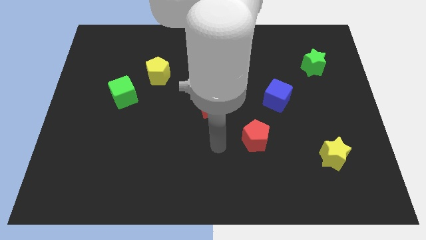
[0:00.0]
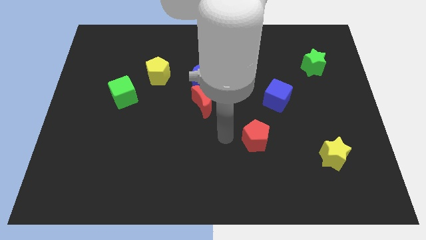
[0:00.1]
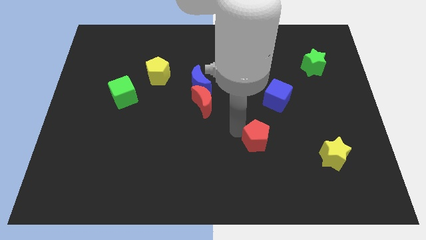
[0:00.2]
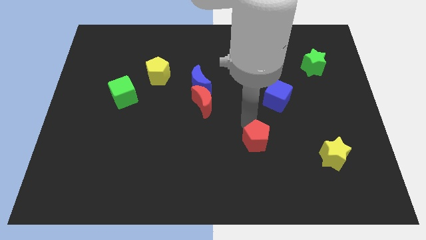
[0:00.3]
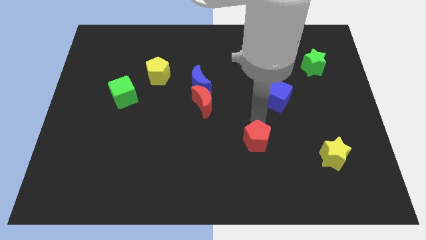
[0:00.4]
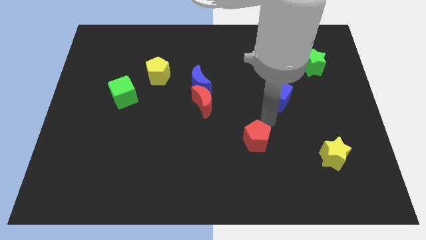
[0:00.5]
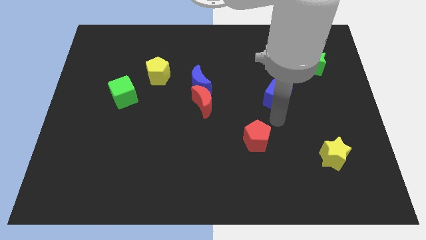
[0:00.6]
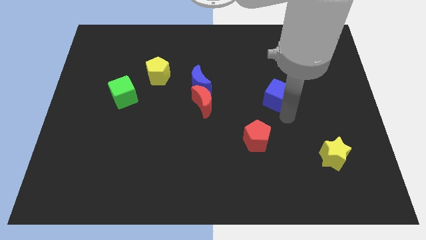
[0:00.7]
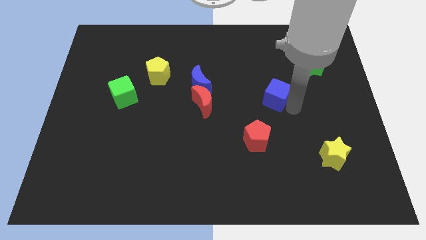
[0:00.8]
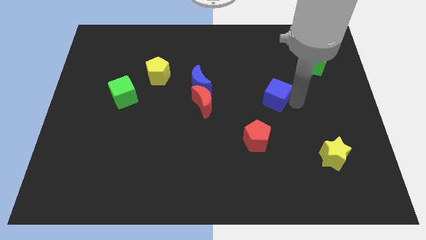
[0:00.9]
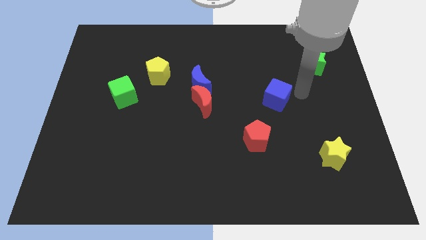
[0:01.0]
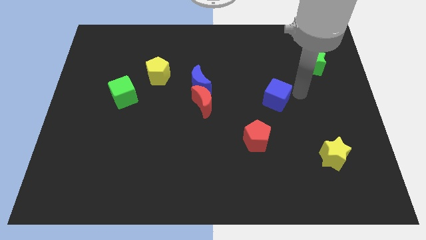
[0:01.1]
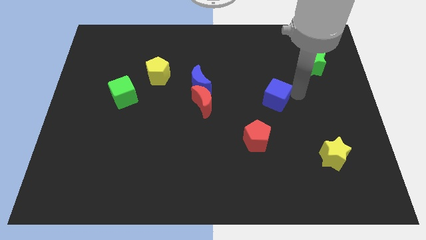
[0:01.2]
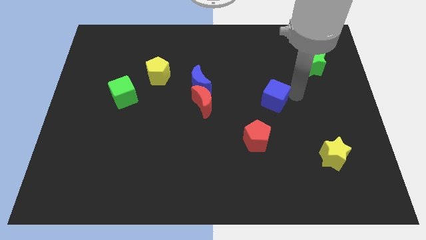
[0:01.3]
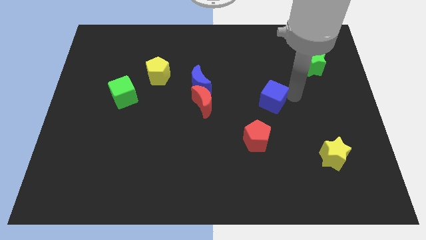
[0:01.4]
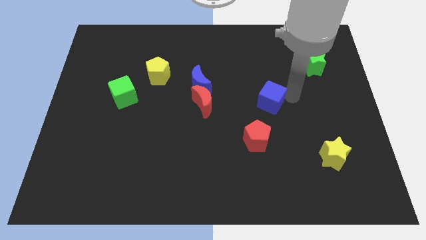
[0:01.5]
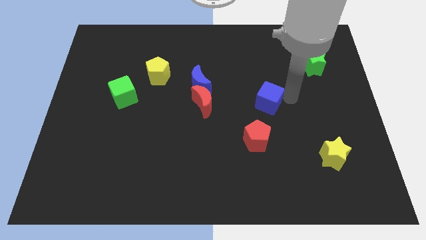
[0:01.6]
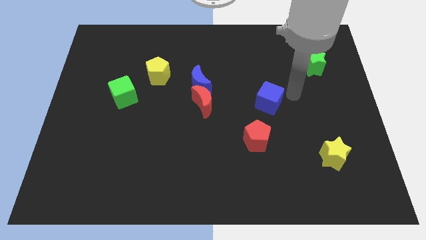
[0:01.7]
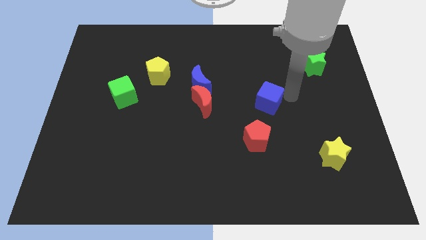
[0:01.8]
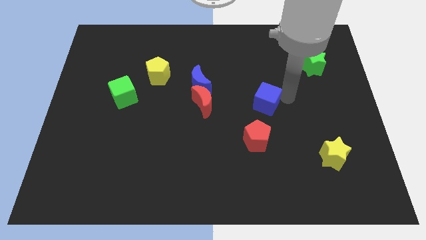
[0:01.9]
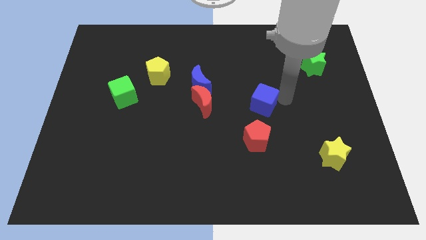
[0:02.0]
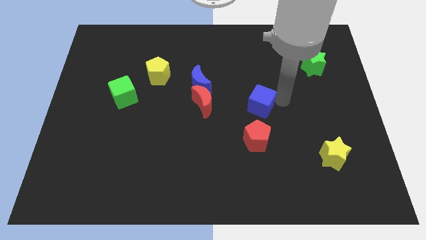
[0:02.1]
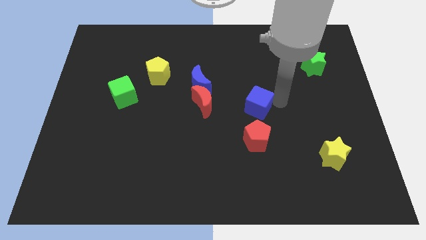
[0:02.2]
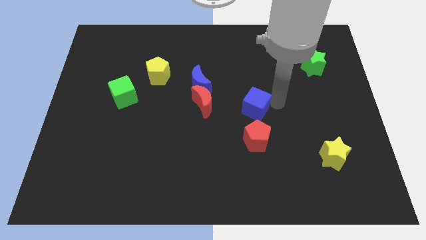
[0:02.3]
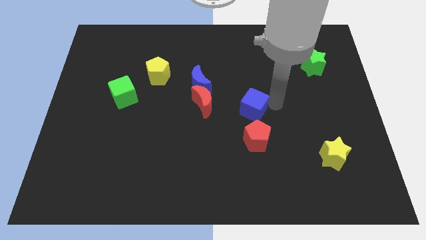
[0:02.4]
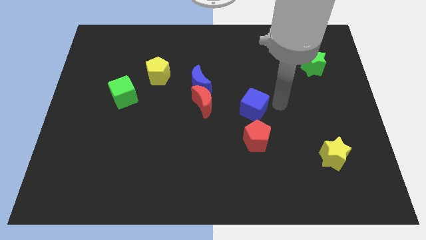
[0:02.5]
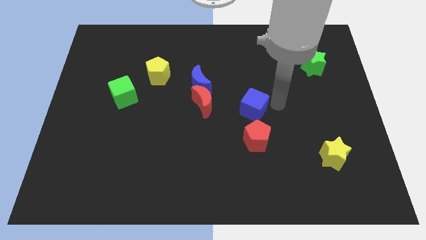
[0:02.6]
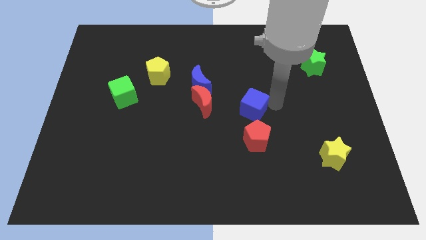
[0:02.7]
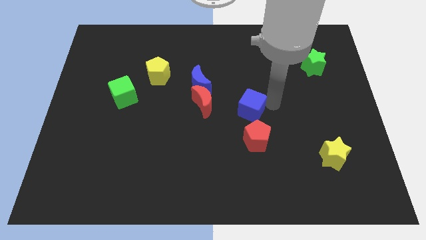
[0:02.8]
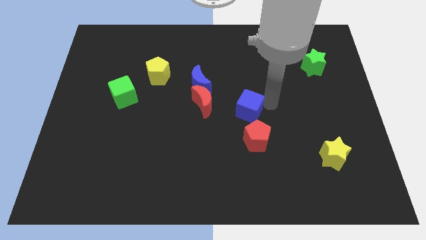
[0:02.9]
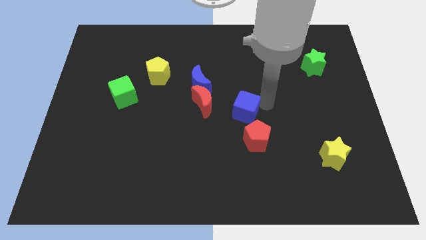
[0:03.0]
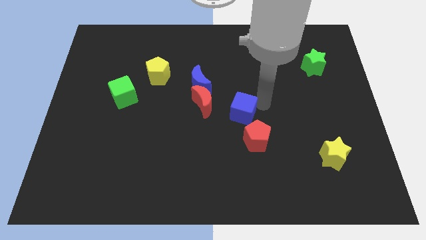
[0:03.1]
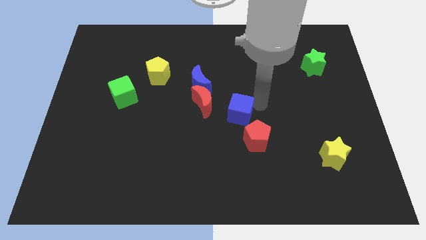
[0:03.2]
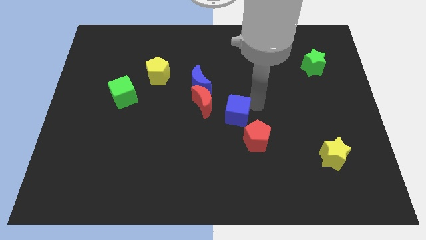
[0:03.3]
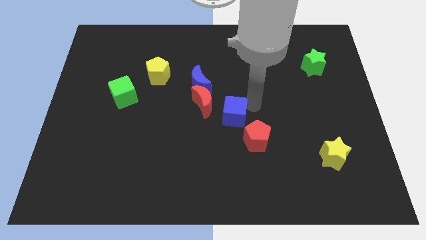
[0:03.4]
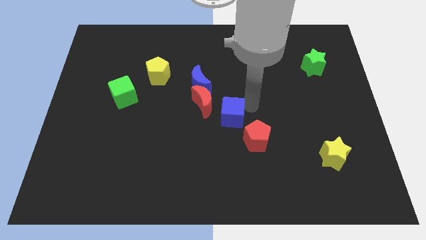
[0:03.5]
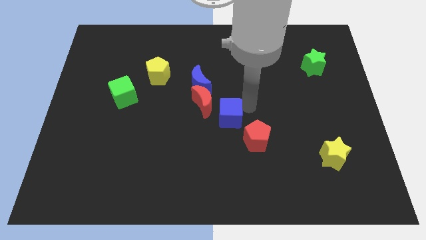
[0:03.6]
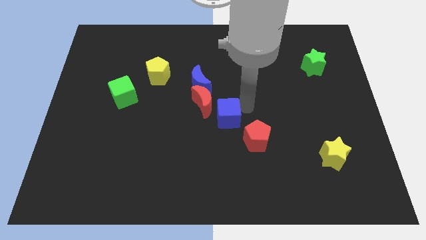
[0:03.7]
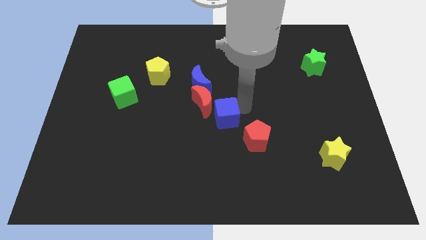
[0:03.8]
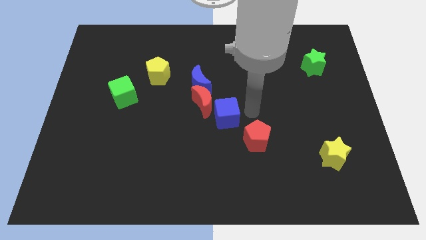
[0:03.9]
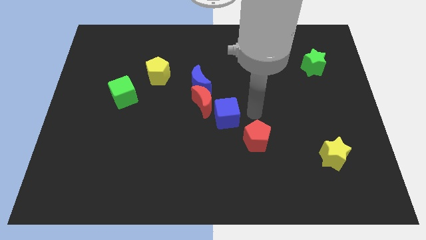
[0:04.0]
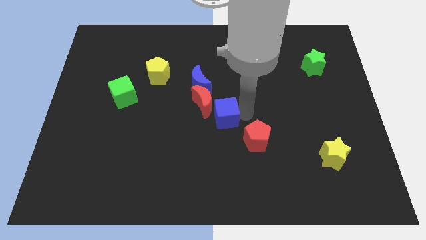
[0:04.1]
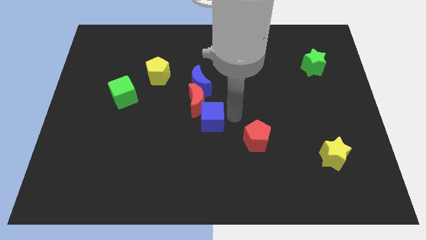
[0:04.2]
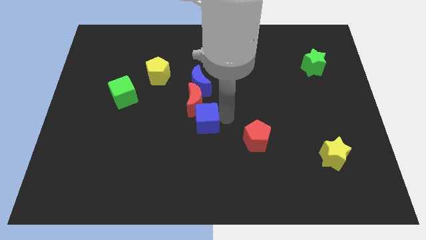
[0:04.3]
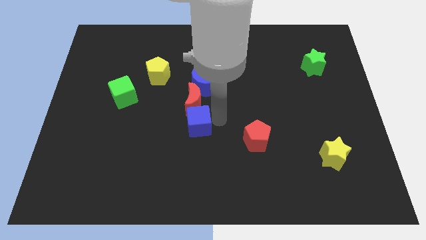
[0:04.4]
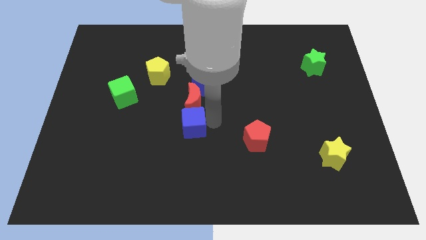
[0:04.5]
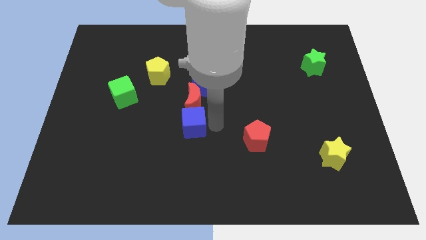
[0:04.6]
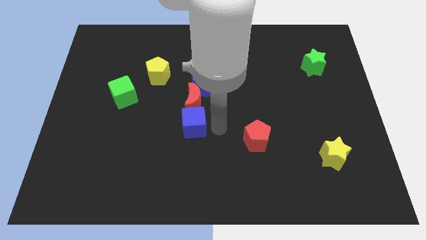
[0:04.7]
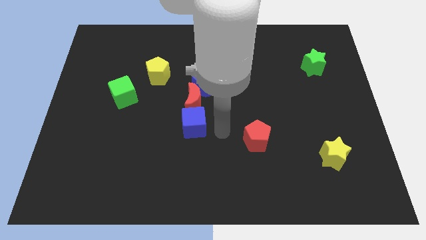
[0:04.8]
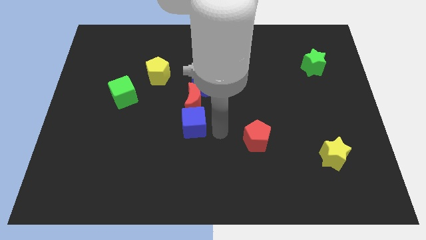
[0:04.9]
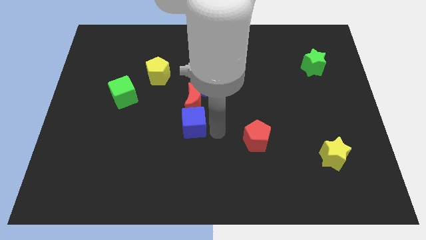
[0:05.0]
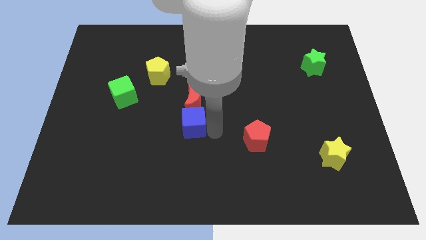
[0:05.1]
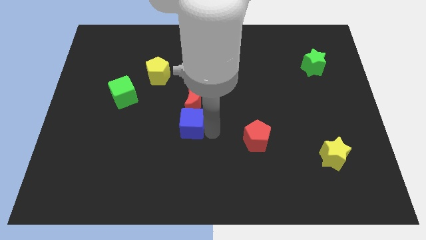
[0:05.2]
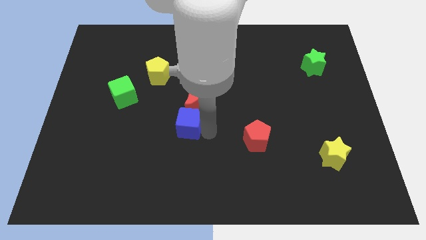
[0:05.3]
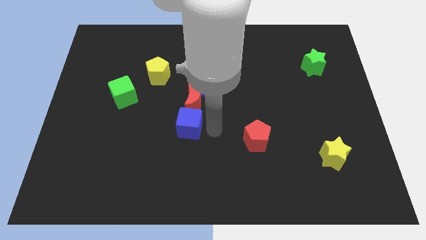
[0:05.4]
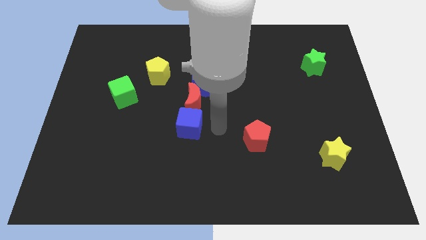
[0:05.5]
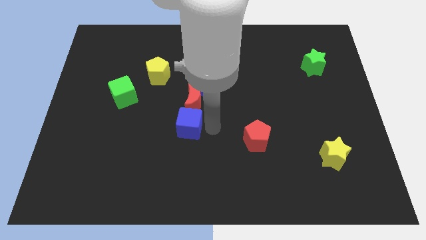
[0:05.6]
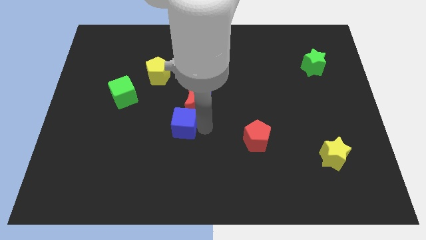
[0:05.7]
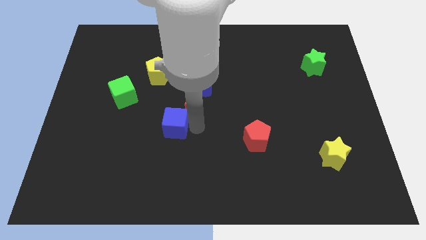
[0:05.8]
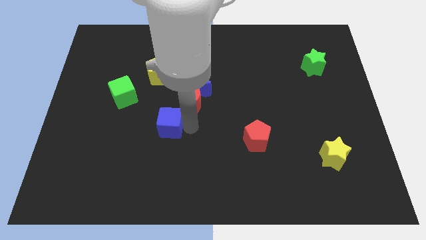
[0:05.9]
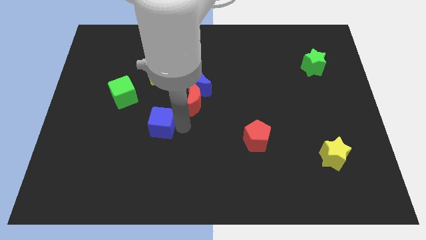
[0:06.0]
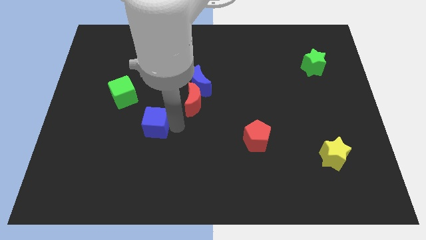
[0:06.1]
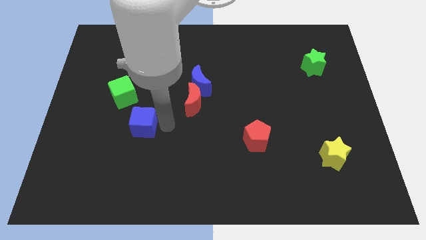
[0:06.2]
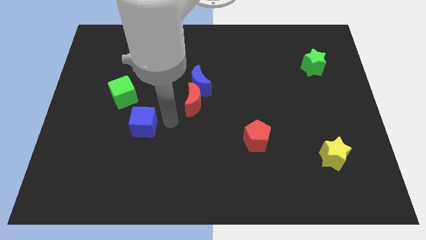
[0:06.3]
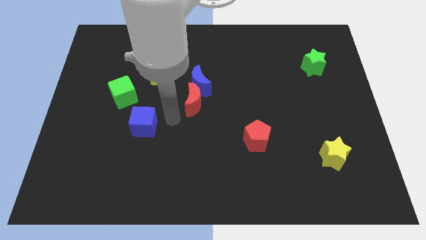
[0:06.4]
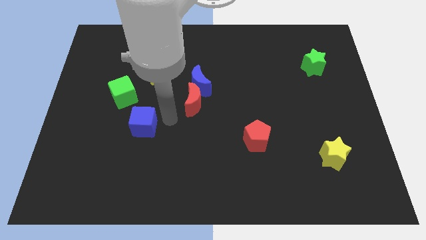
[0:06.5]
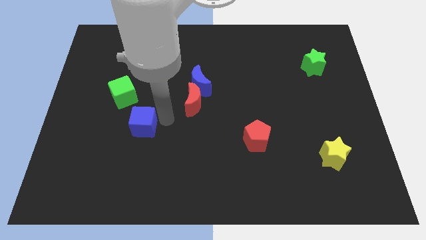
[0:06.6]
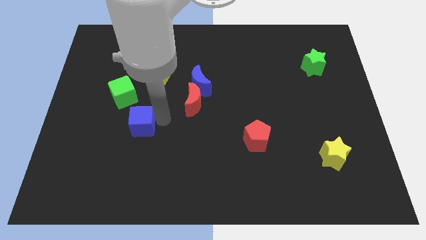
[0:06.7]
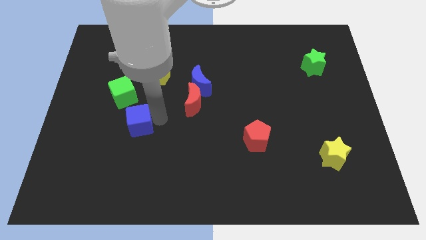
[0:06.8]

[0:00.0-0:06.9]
push the blue cube to the bottom of the green cube

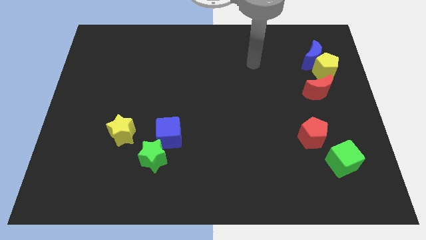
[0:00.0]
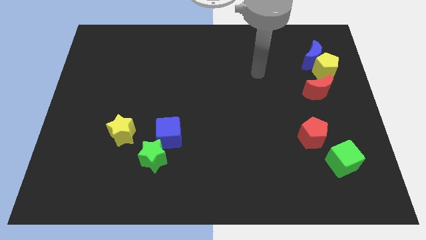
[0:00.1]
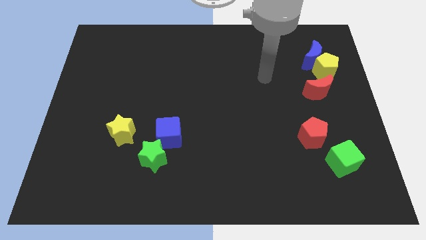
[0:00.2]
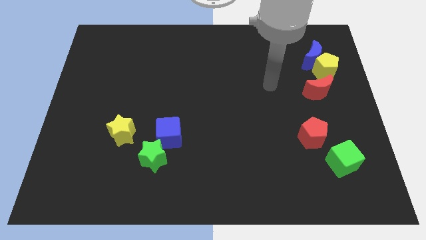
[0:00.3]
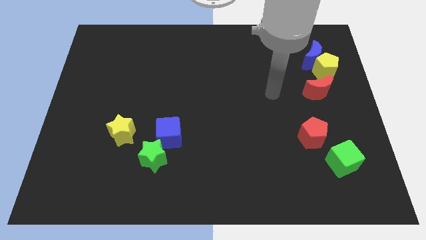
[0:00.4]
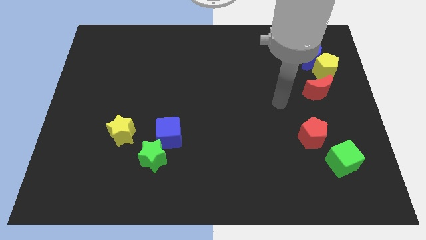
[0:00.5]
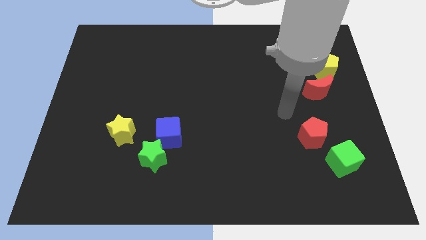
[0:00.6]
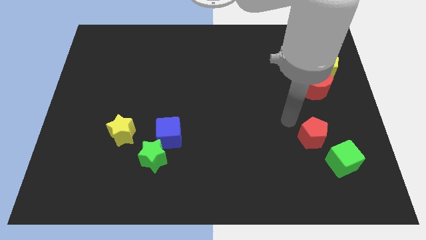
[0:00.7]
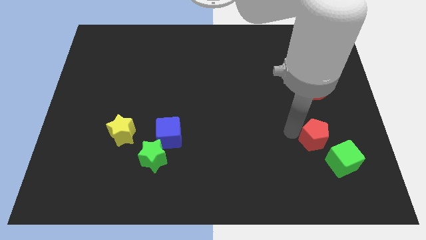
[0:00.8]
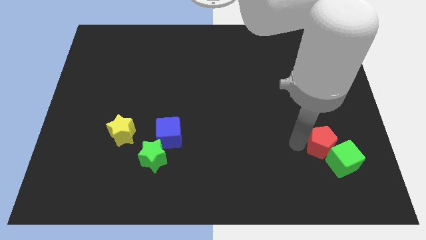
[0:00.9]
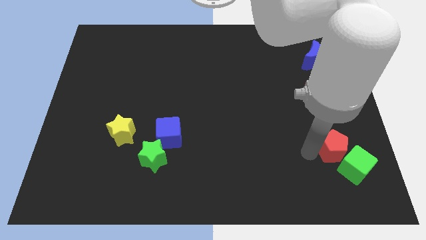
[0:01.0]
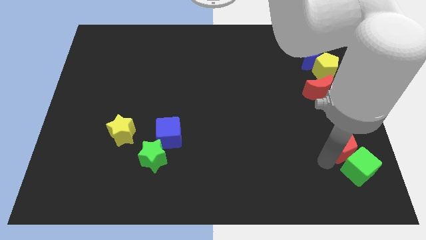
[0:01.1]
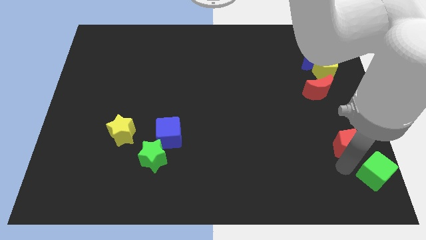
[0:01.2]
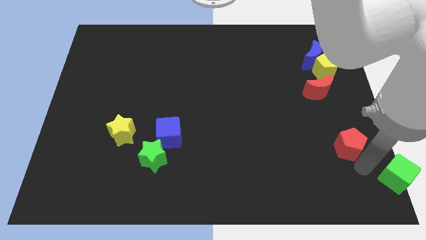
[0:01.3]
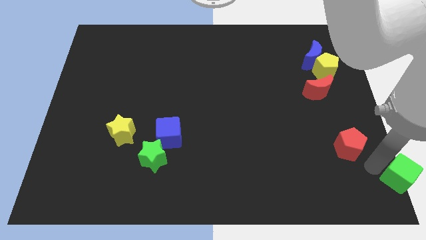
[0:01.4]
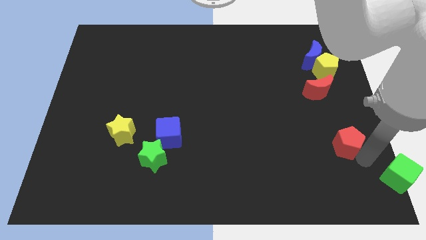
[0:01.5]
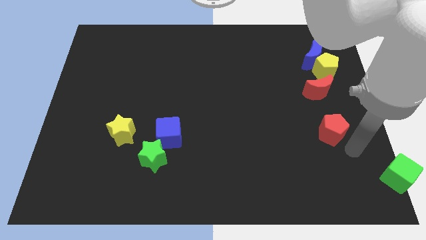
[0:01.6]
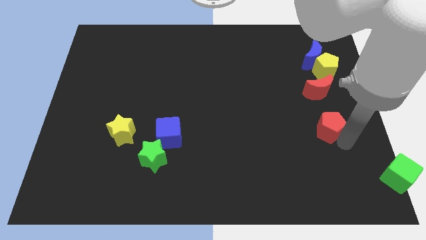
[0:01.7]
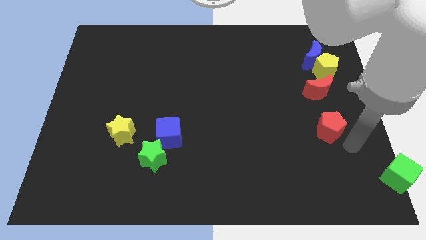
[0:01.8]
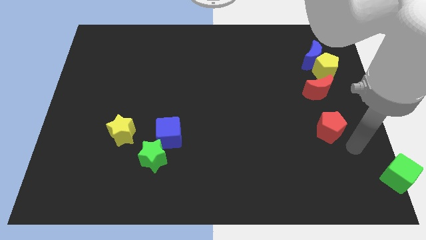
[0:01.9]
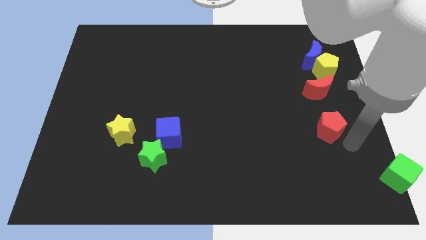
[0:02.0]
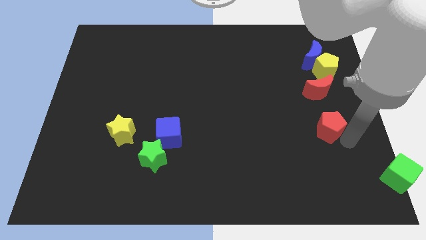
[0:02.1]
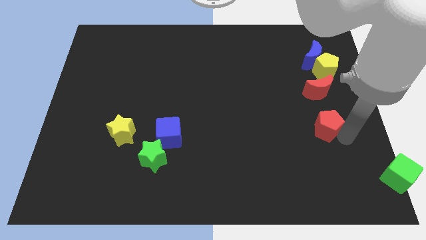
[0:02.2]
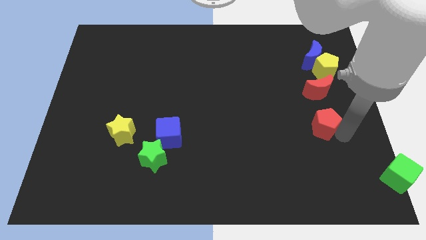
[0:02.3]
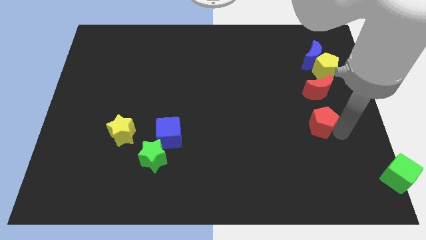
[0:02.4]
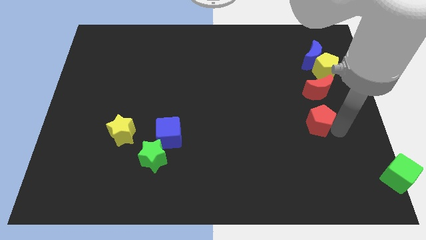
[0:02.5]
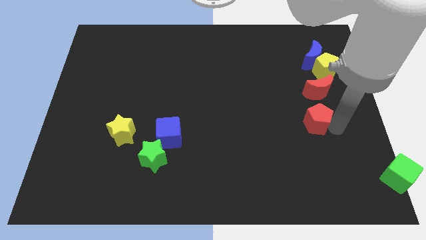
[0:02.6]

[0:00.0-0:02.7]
slide the red pentagon to the bottom left of the red moon
